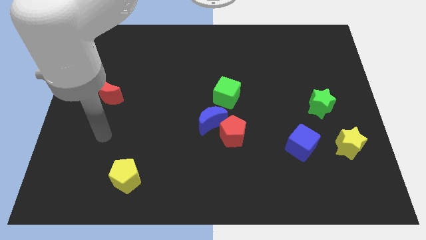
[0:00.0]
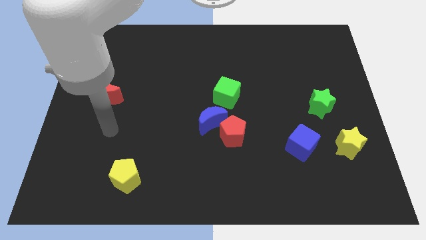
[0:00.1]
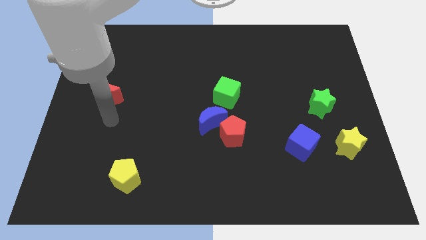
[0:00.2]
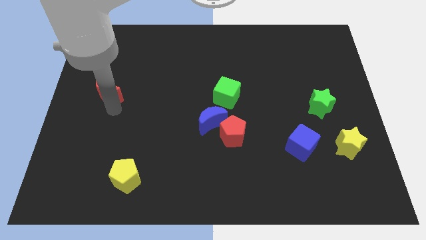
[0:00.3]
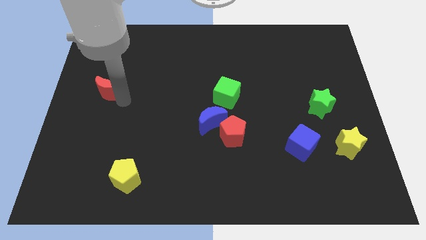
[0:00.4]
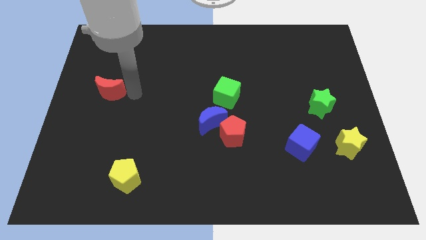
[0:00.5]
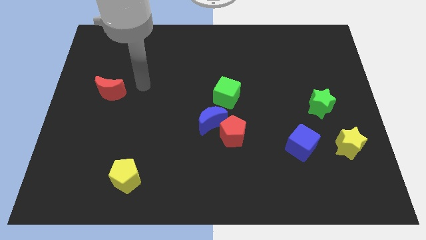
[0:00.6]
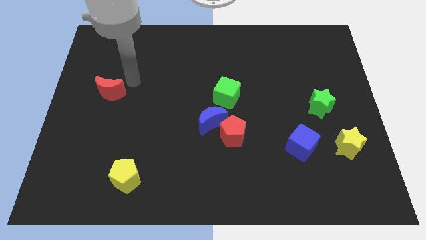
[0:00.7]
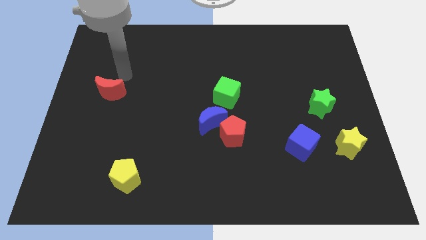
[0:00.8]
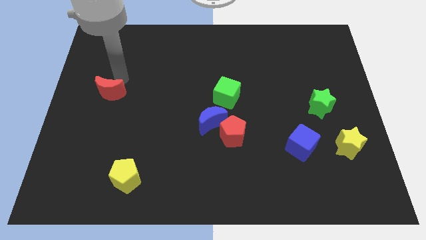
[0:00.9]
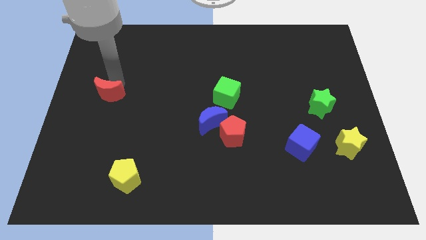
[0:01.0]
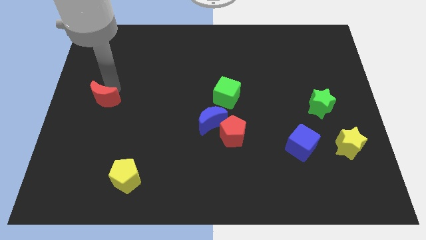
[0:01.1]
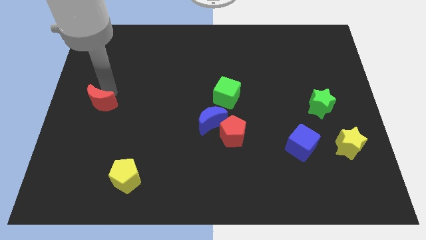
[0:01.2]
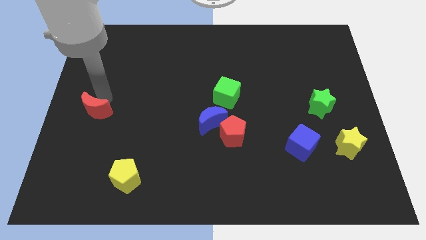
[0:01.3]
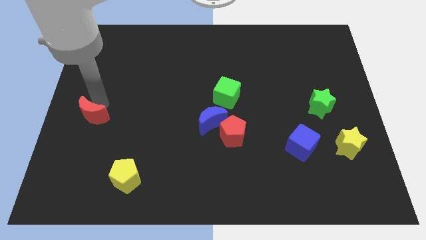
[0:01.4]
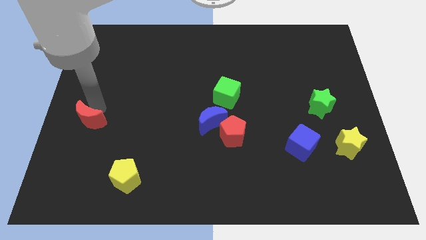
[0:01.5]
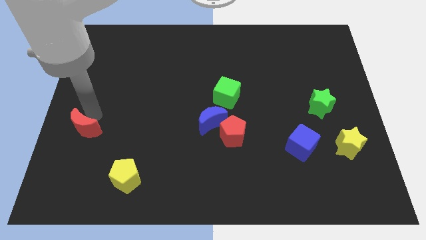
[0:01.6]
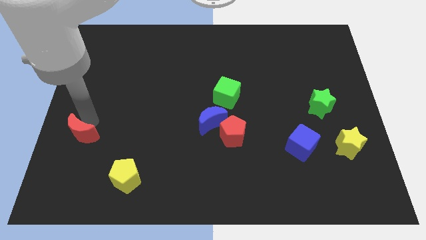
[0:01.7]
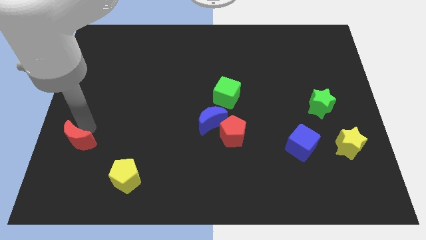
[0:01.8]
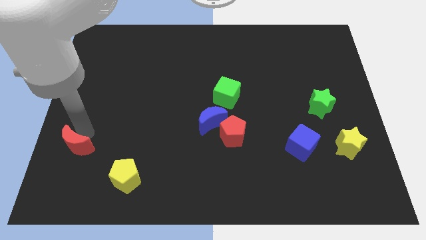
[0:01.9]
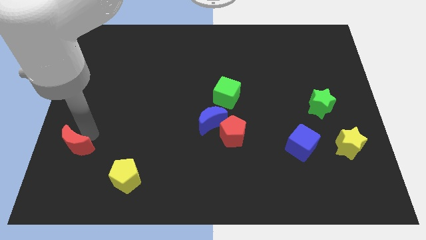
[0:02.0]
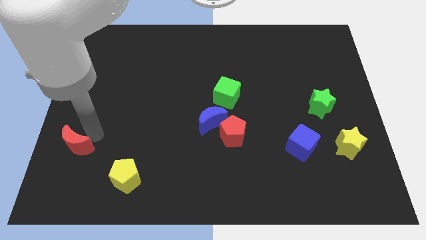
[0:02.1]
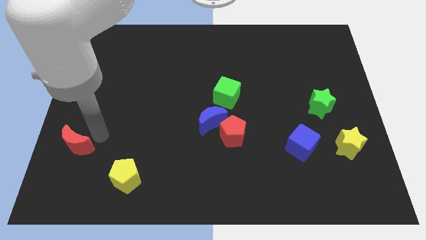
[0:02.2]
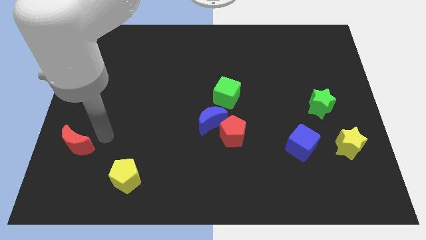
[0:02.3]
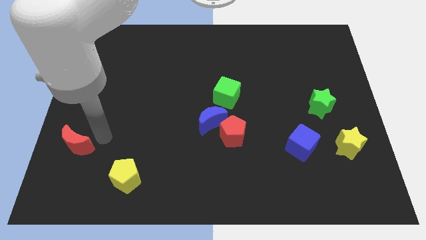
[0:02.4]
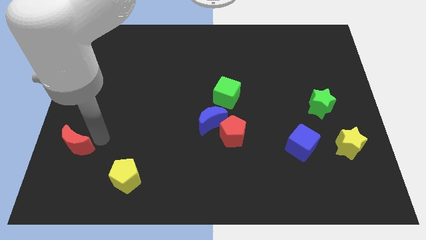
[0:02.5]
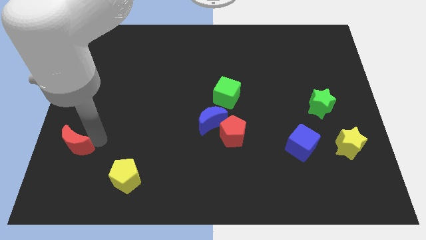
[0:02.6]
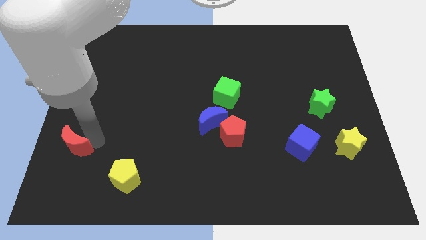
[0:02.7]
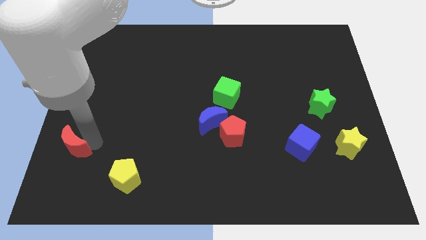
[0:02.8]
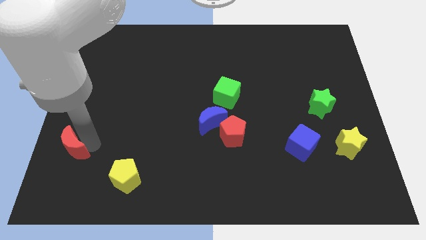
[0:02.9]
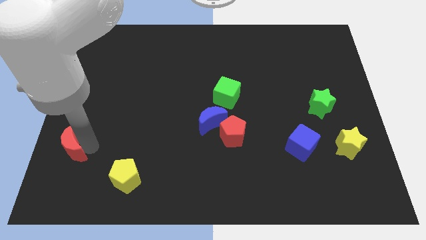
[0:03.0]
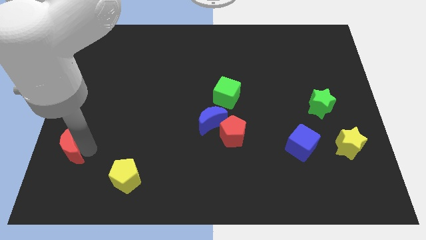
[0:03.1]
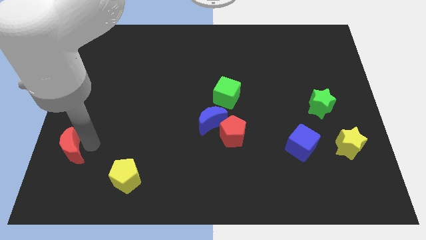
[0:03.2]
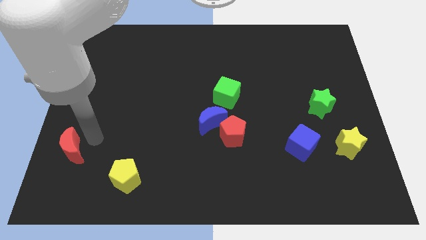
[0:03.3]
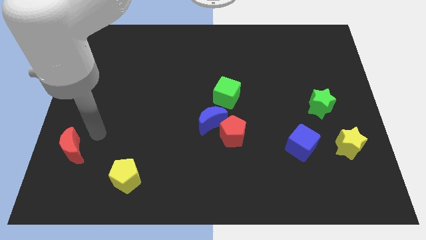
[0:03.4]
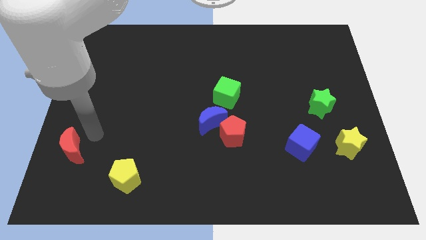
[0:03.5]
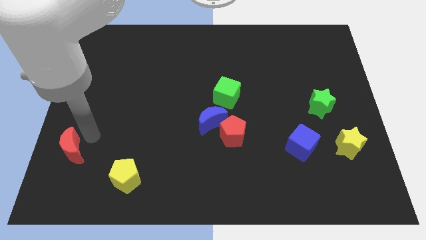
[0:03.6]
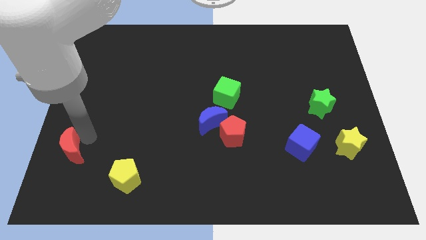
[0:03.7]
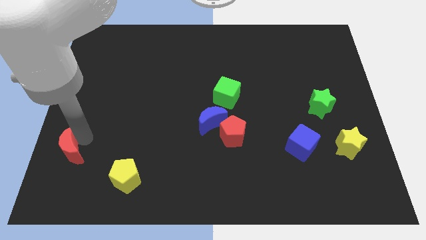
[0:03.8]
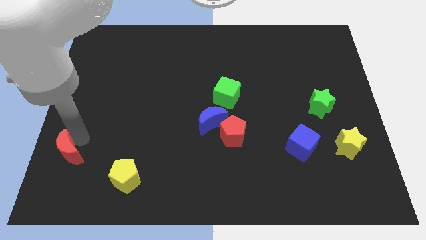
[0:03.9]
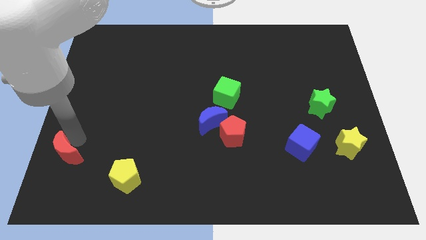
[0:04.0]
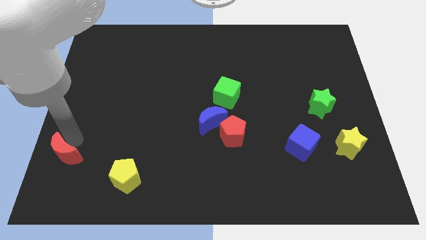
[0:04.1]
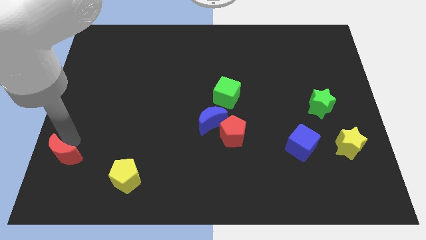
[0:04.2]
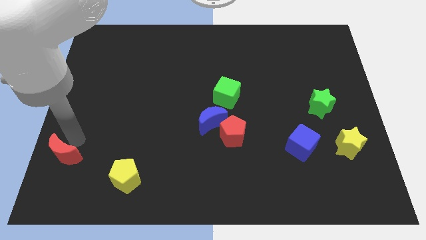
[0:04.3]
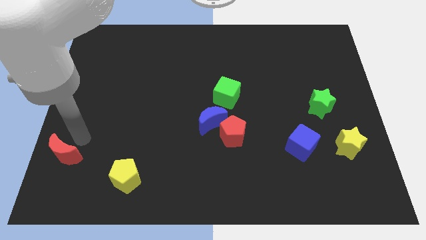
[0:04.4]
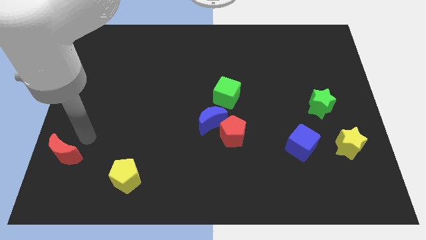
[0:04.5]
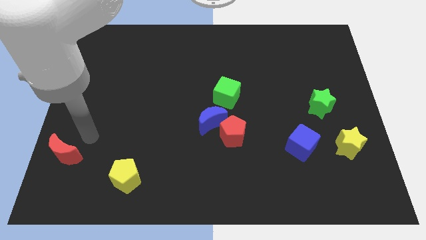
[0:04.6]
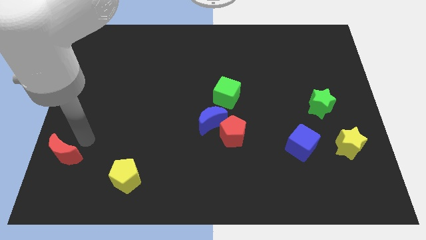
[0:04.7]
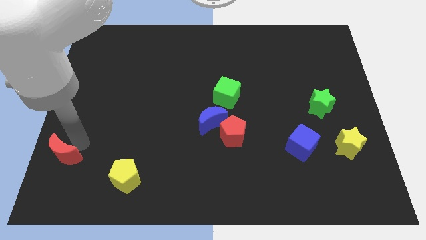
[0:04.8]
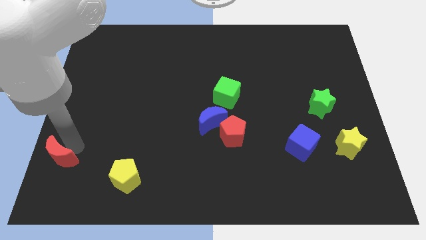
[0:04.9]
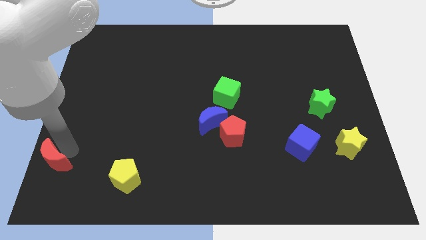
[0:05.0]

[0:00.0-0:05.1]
move the red moon to the bottom left of the board

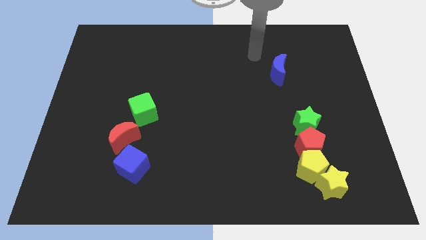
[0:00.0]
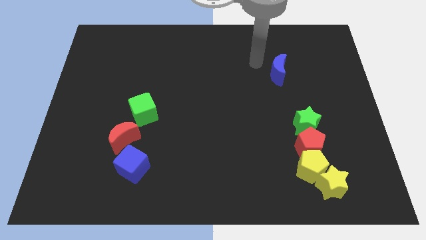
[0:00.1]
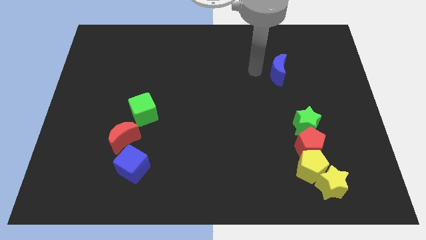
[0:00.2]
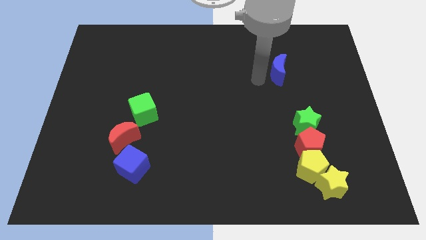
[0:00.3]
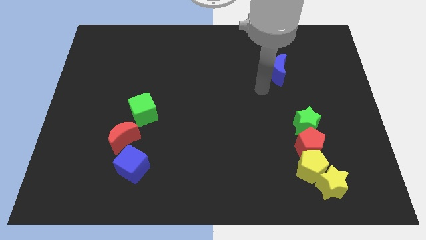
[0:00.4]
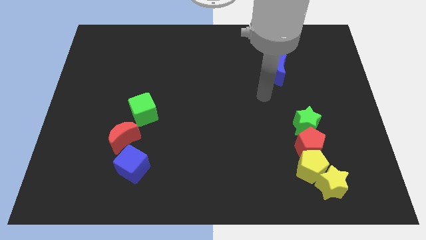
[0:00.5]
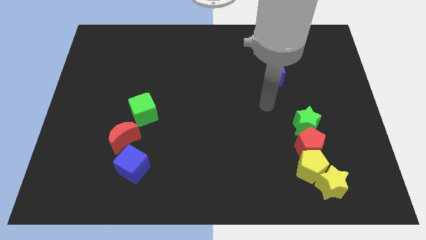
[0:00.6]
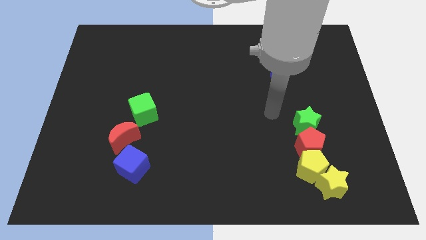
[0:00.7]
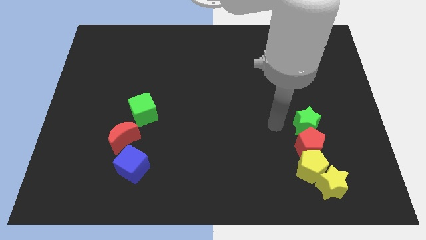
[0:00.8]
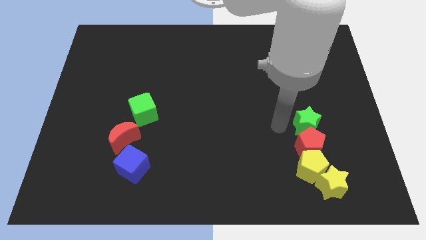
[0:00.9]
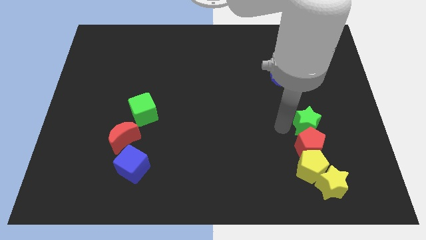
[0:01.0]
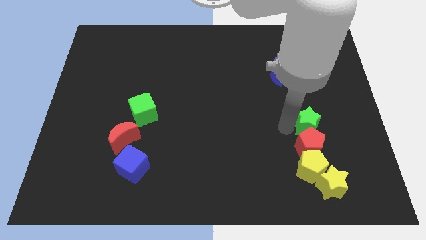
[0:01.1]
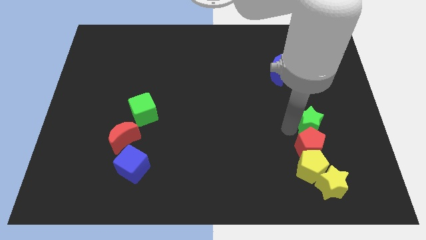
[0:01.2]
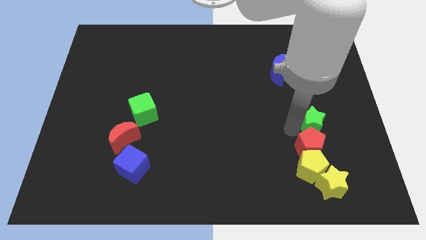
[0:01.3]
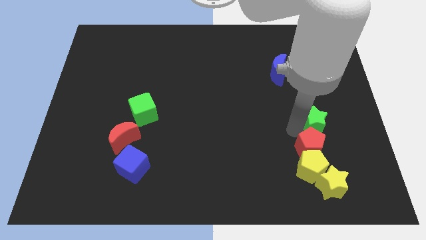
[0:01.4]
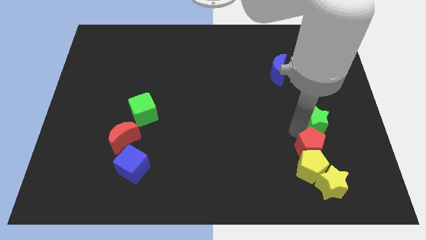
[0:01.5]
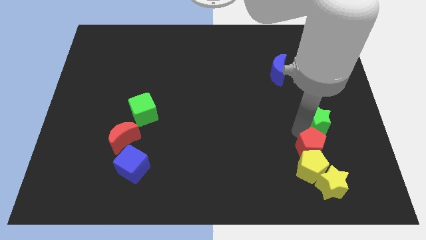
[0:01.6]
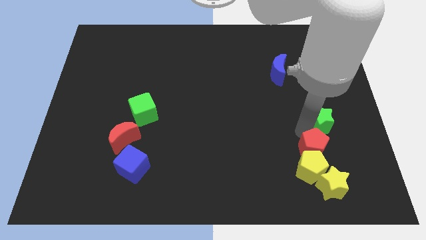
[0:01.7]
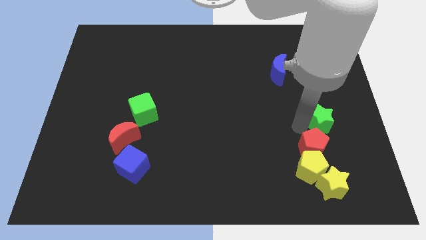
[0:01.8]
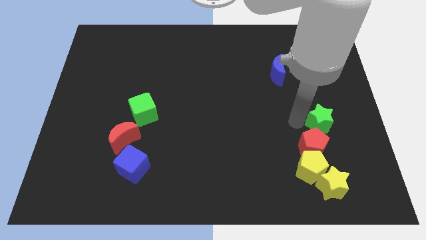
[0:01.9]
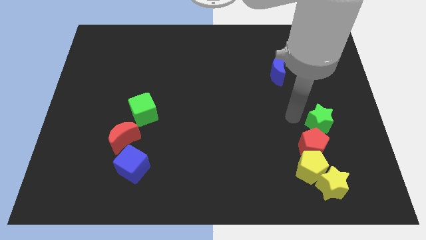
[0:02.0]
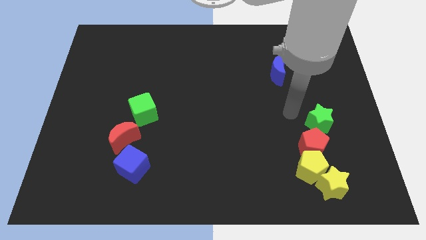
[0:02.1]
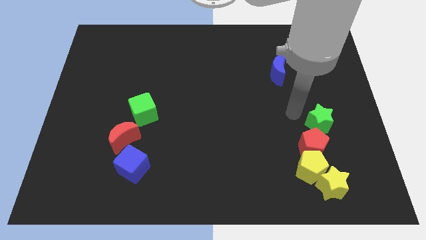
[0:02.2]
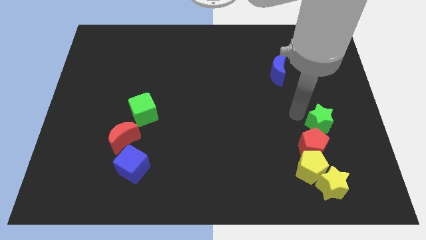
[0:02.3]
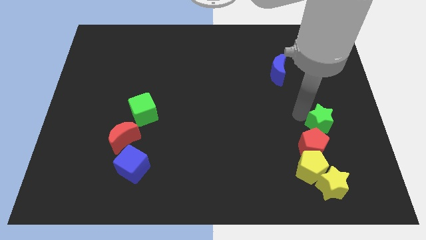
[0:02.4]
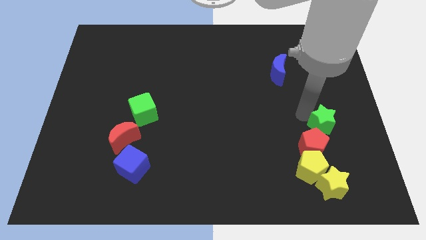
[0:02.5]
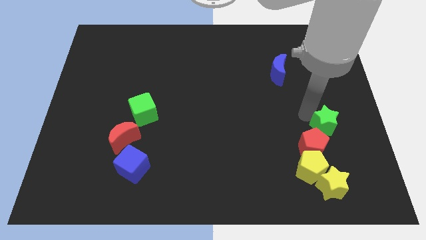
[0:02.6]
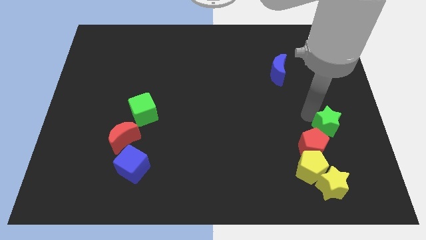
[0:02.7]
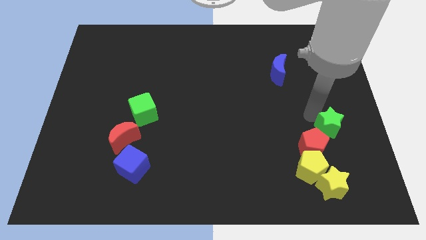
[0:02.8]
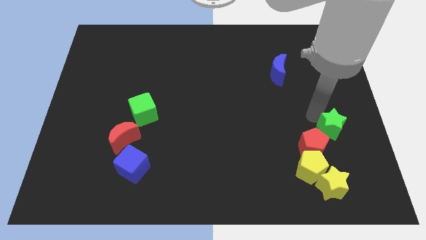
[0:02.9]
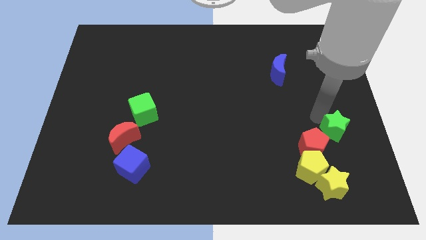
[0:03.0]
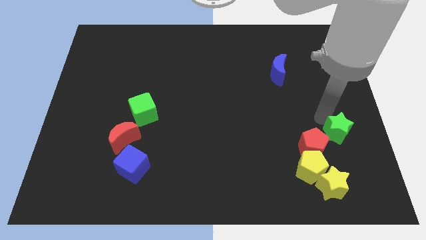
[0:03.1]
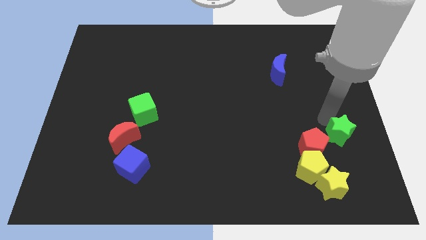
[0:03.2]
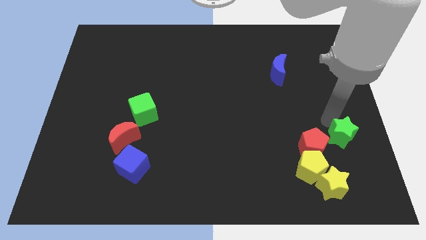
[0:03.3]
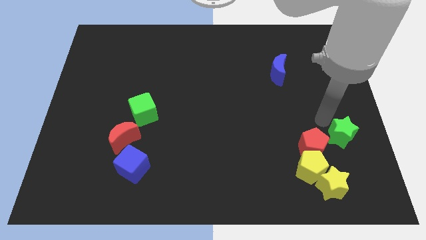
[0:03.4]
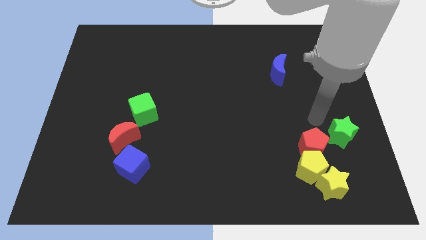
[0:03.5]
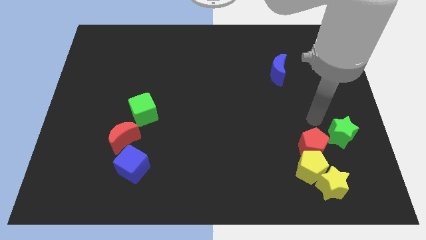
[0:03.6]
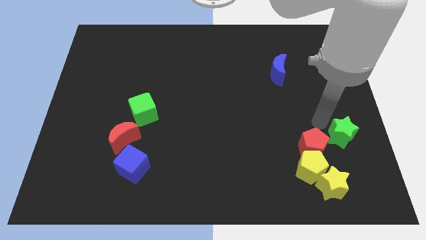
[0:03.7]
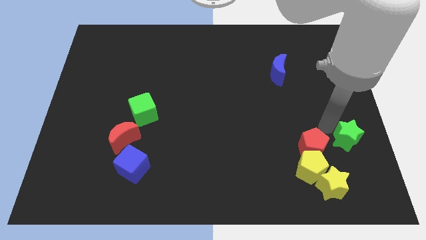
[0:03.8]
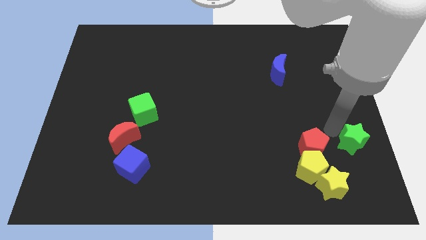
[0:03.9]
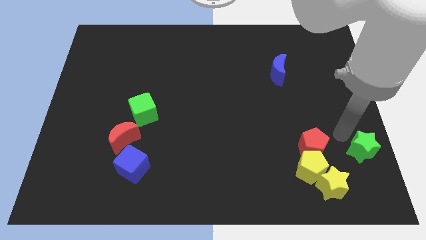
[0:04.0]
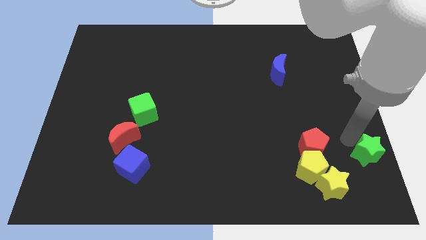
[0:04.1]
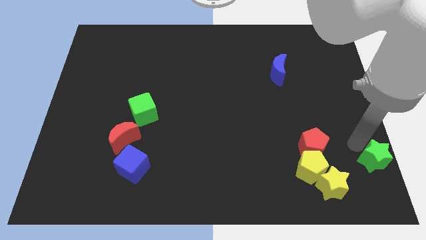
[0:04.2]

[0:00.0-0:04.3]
push the green star to the bottom right of the board
